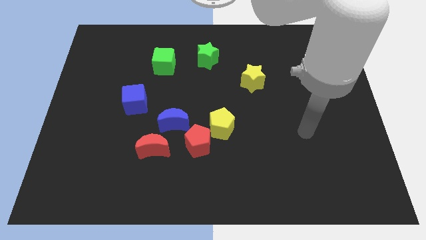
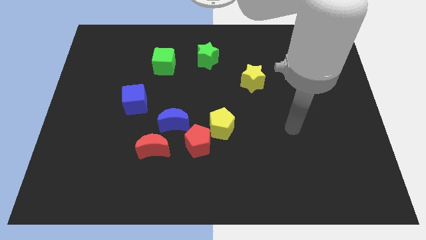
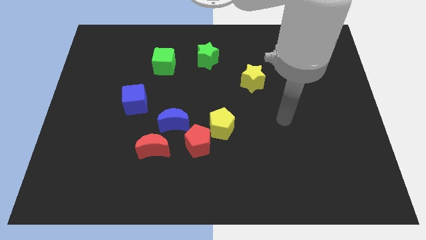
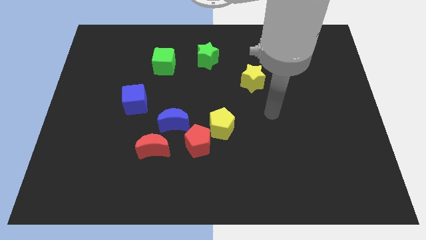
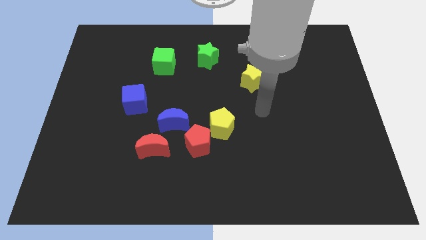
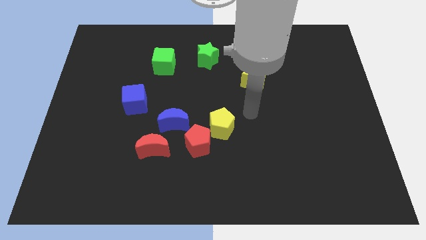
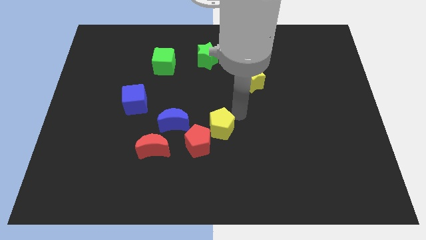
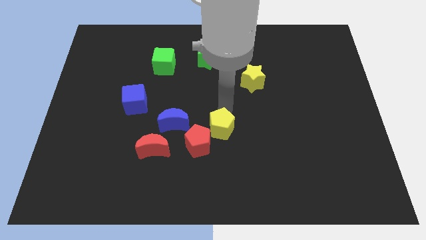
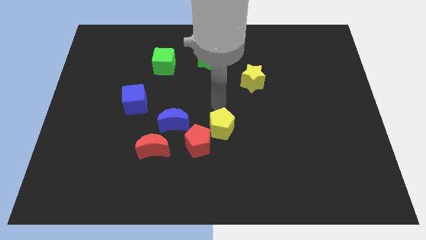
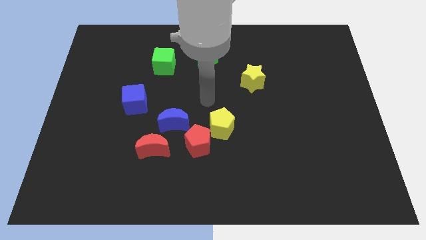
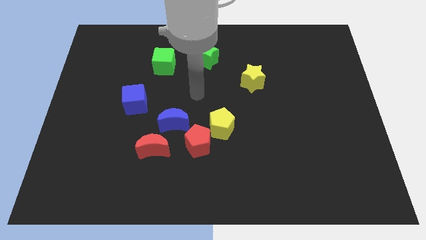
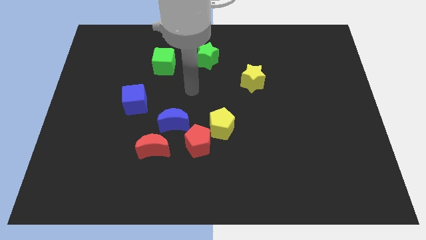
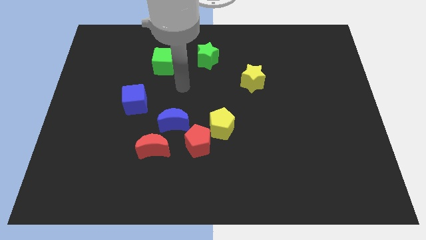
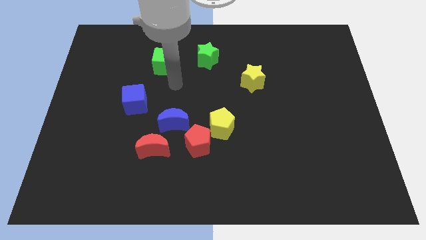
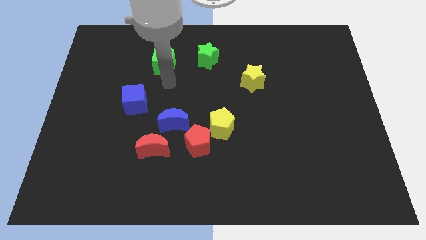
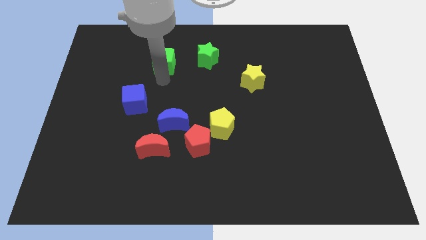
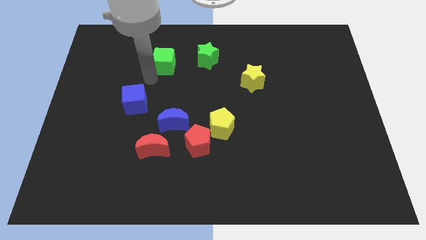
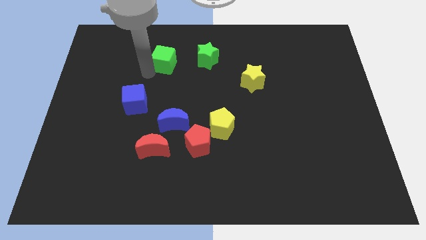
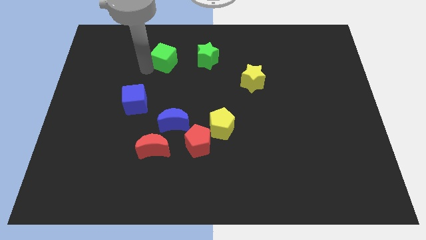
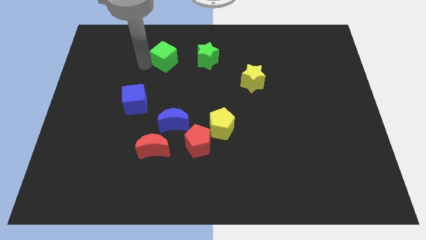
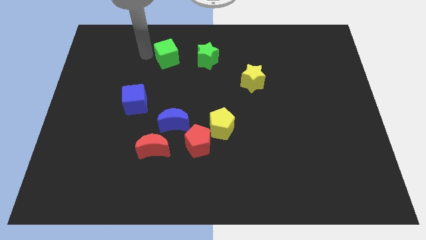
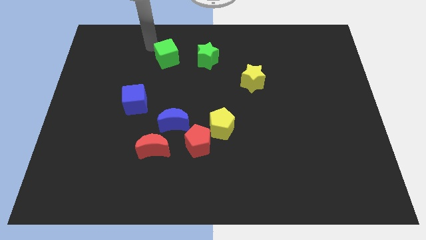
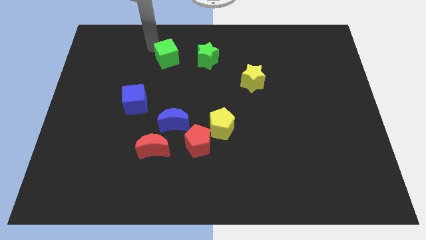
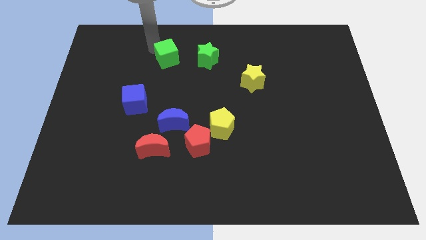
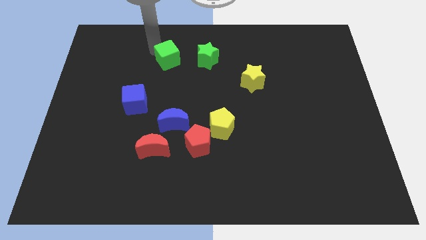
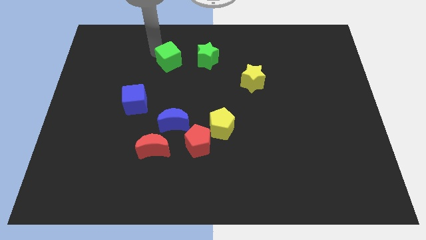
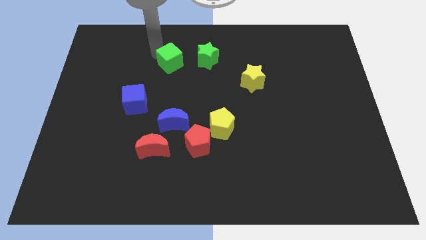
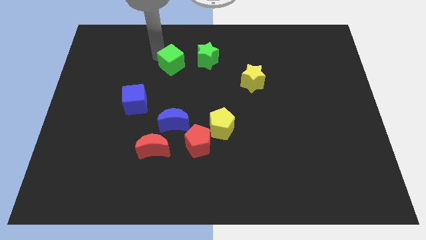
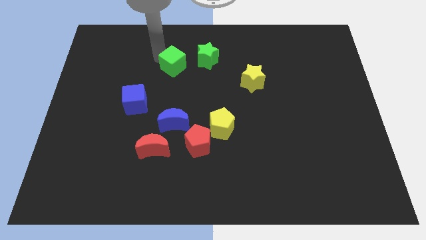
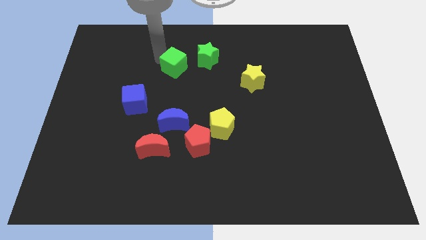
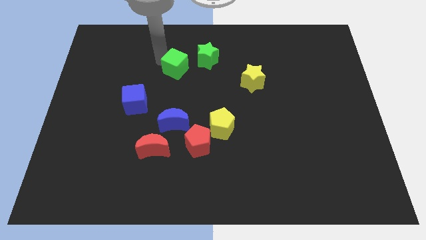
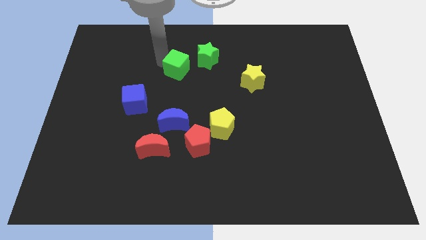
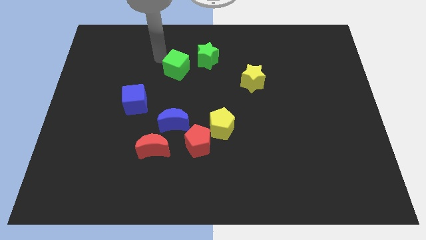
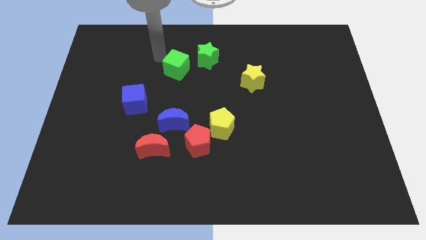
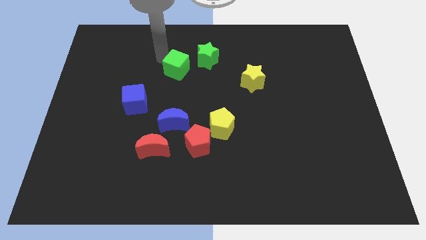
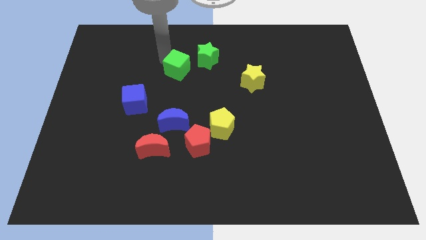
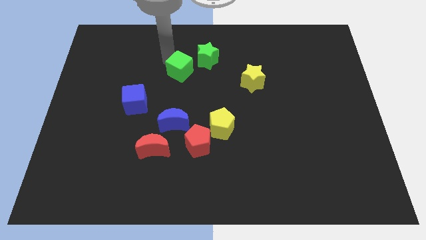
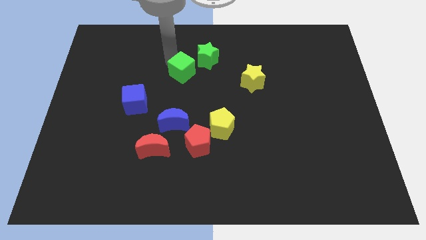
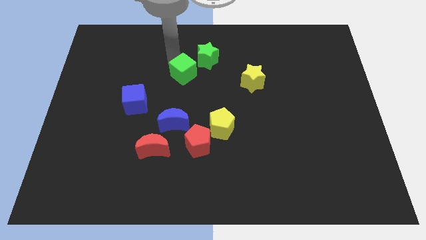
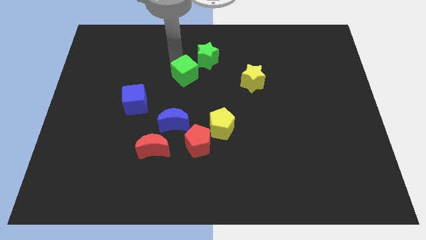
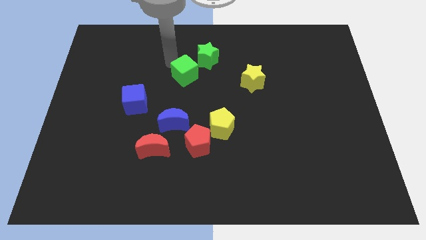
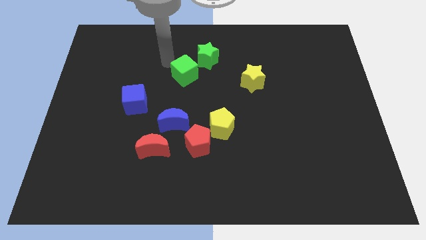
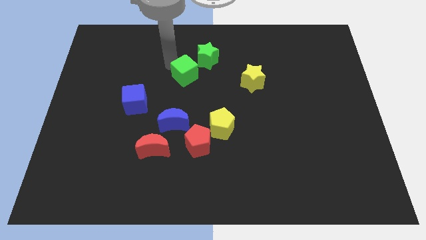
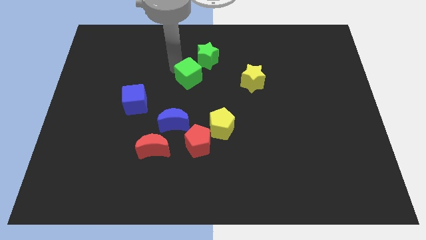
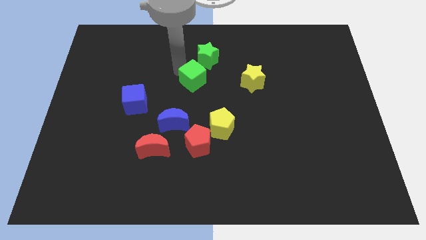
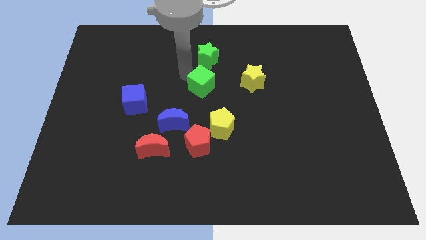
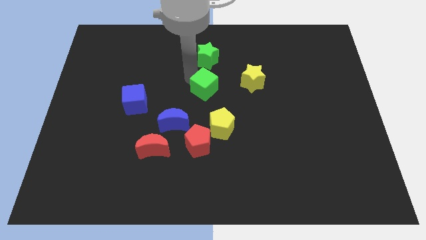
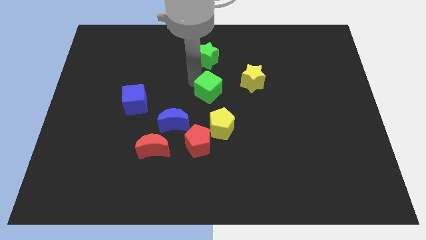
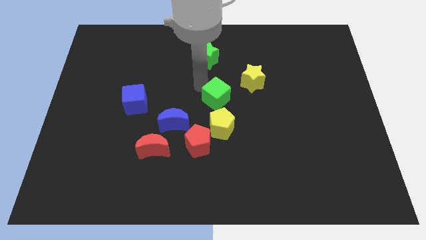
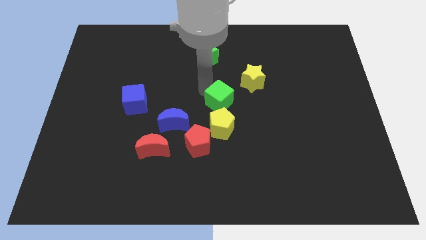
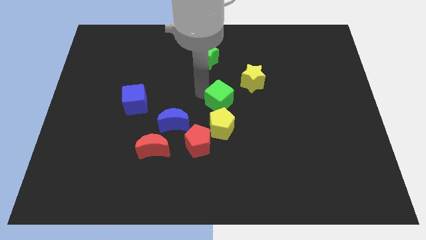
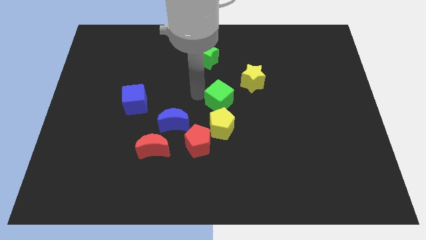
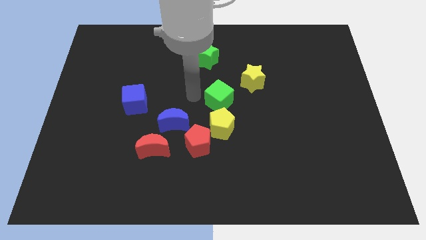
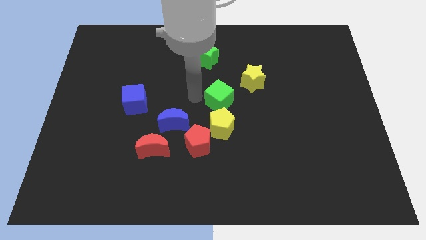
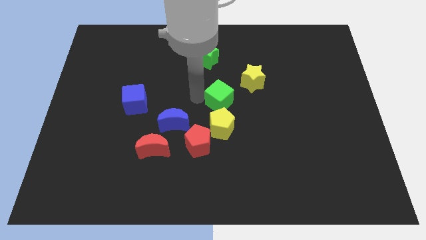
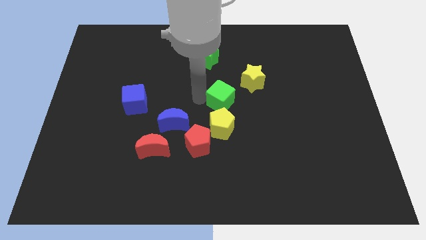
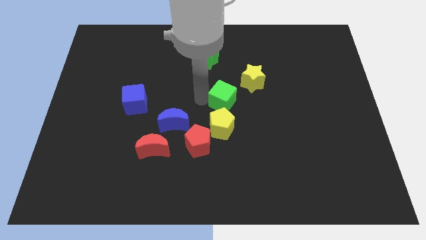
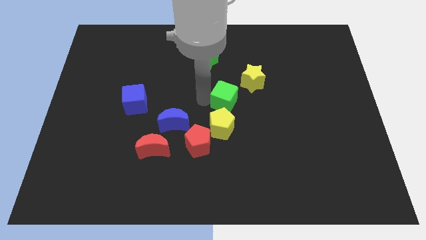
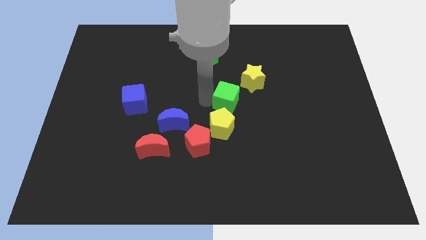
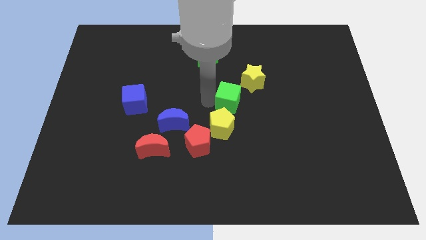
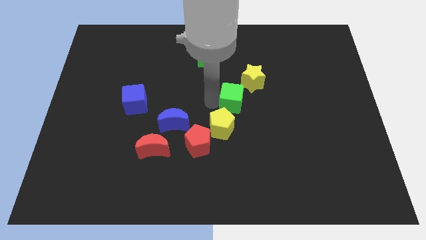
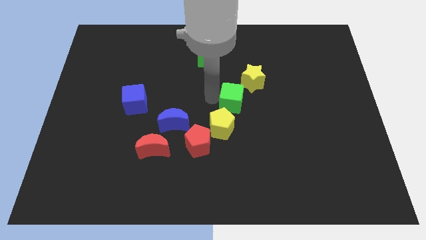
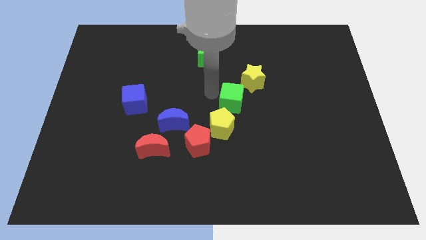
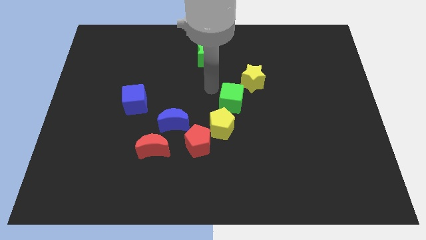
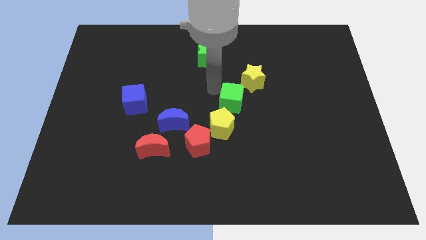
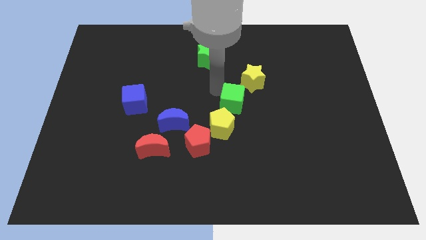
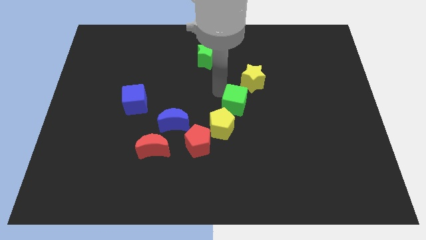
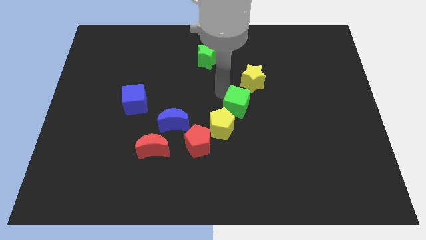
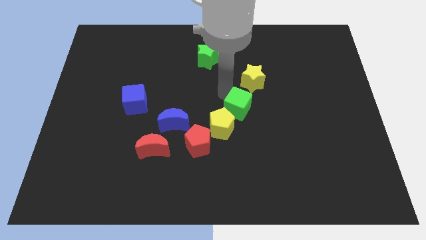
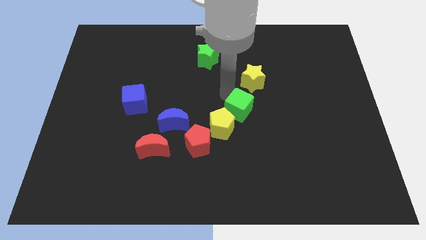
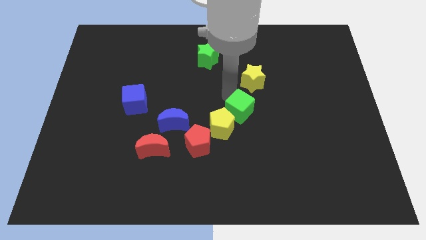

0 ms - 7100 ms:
slide the green cube just right of the yellow pentagon

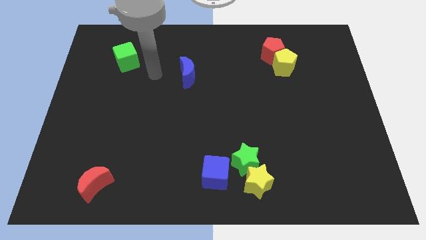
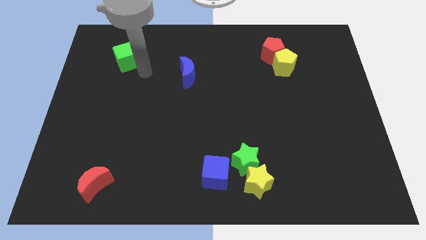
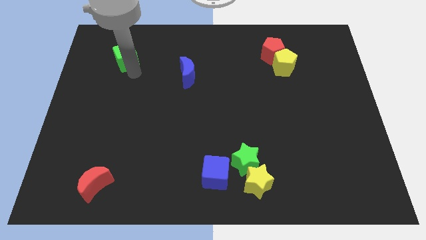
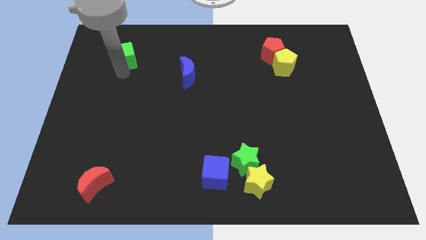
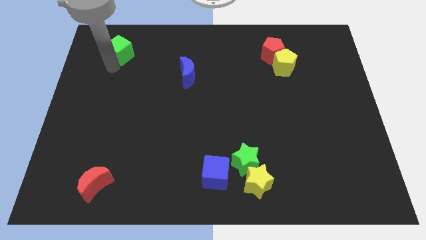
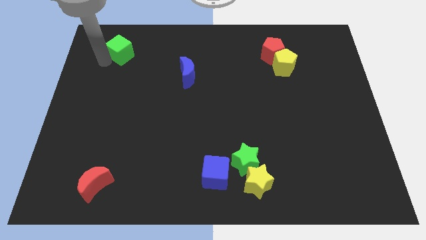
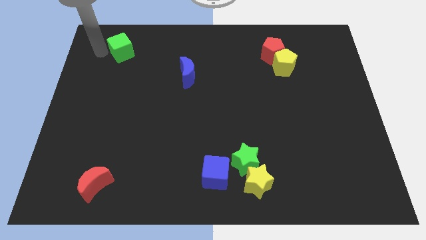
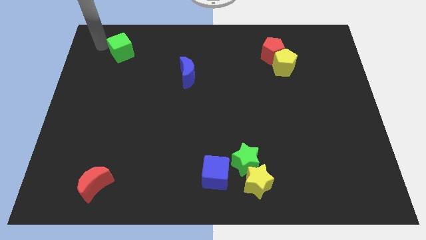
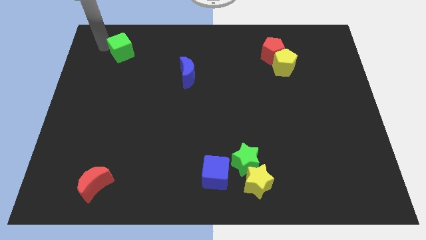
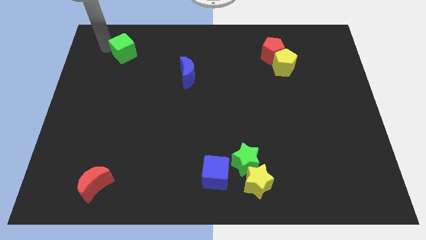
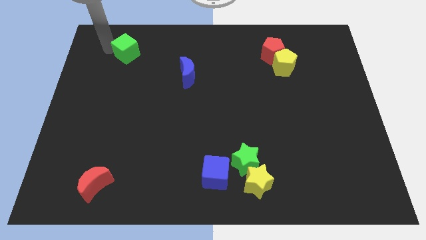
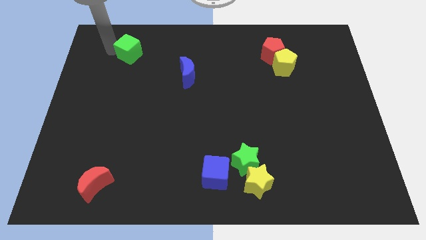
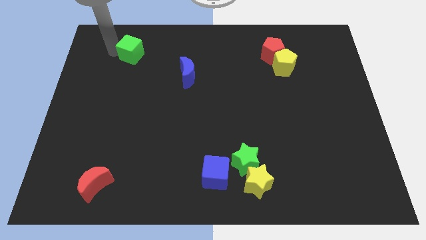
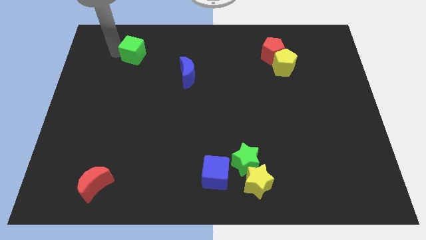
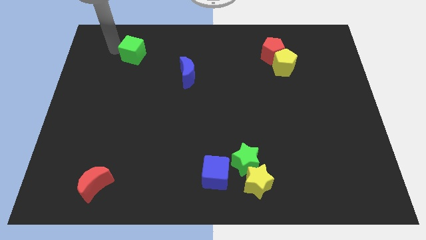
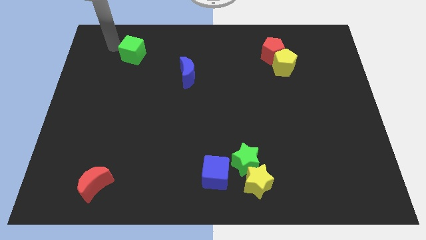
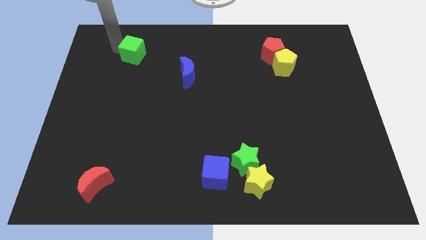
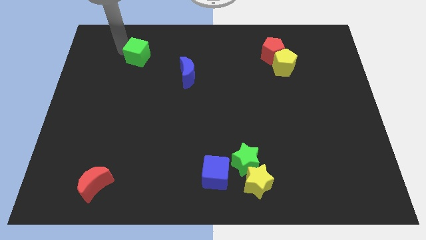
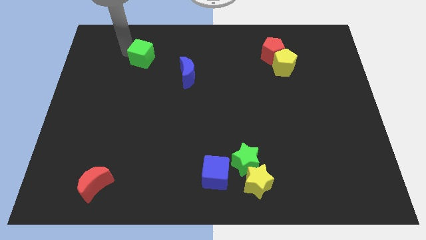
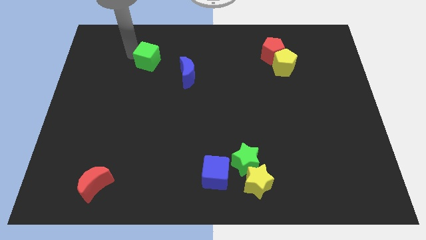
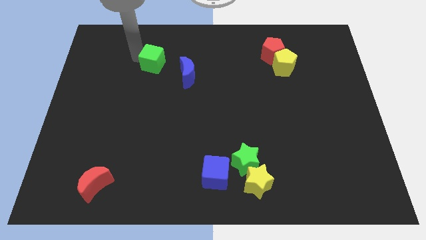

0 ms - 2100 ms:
move the green cube to the top left of the blue moon
